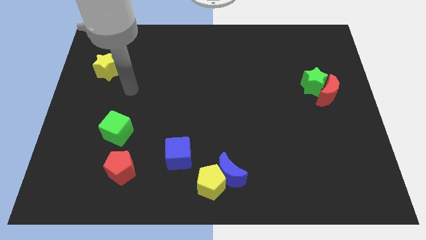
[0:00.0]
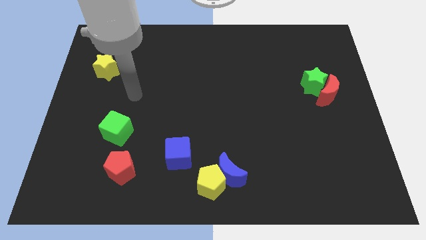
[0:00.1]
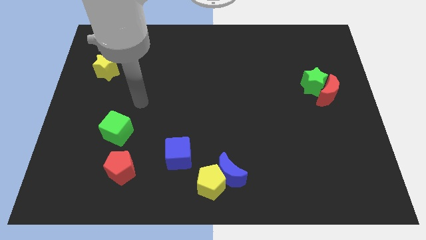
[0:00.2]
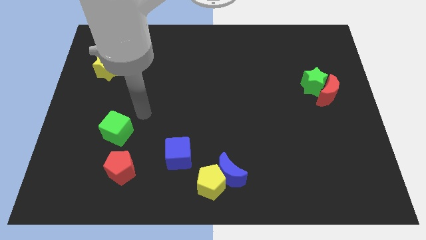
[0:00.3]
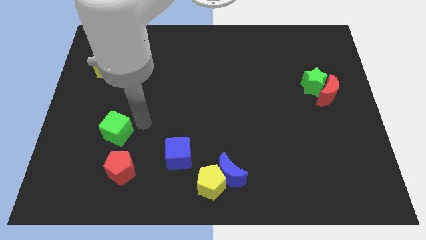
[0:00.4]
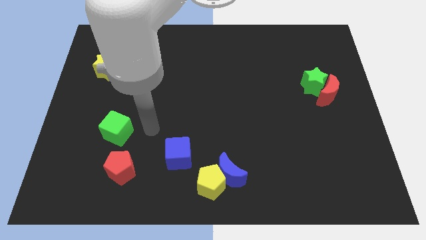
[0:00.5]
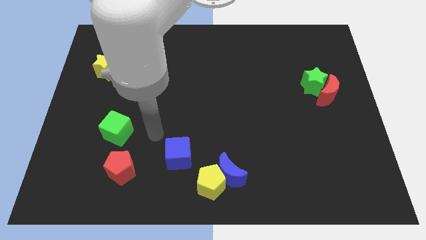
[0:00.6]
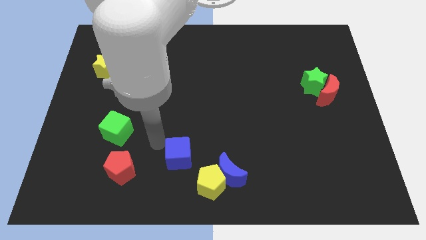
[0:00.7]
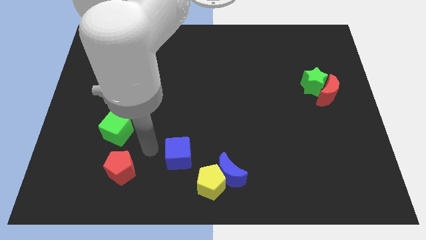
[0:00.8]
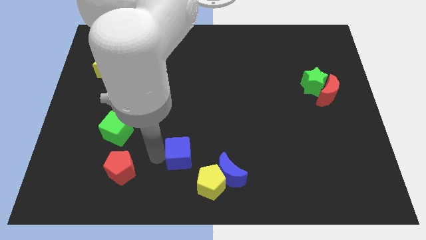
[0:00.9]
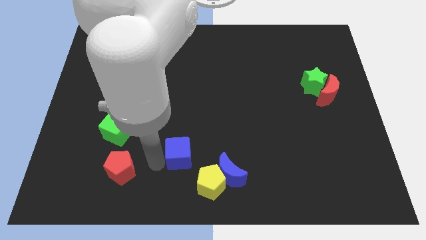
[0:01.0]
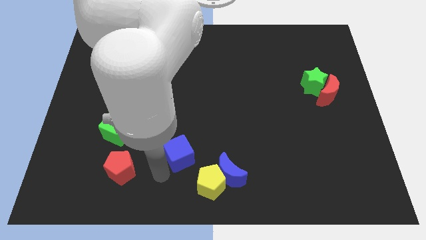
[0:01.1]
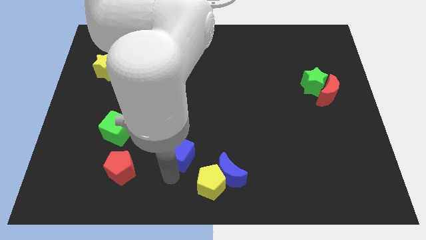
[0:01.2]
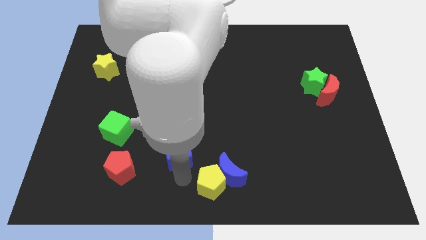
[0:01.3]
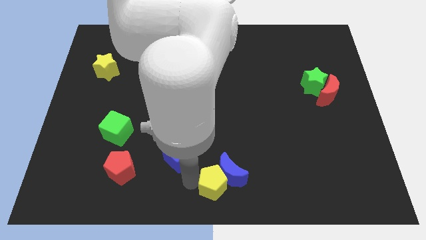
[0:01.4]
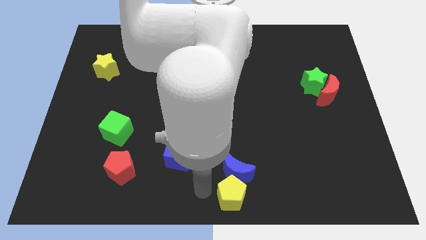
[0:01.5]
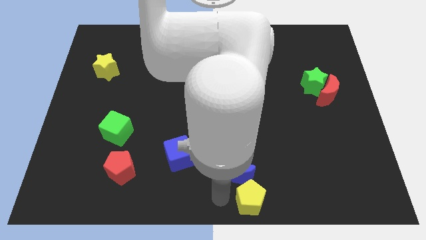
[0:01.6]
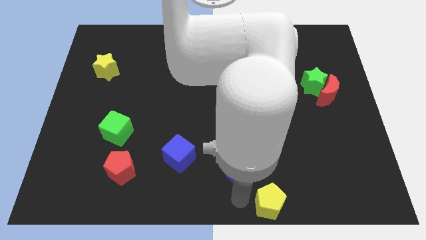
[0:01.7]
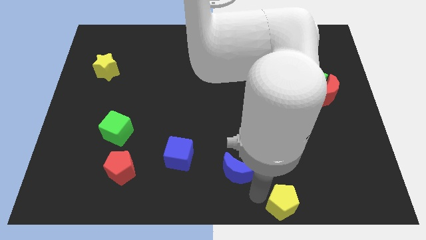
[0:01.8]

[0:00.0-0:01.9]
separate the blue moon from the yellow pentagon

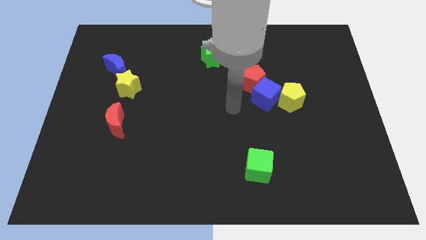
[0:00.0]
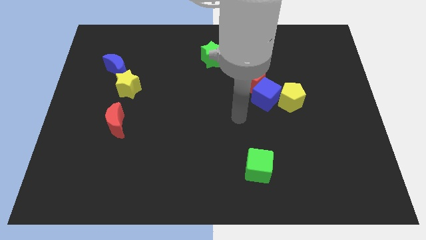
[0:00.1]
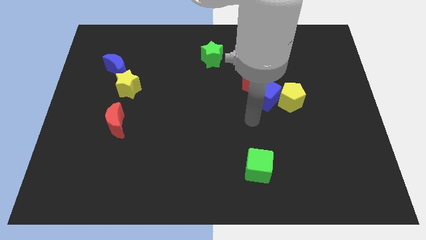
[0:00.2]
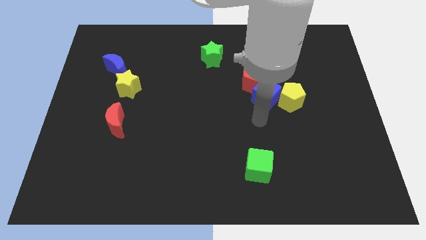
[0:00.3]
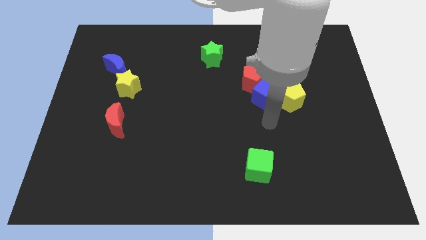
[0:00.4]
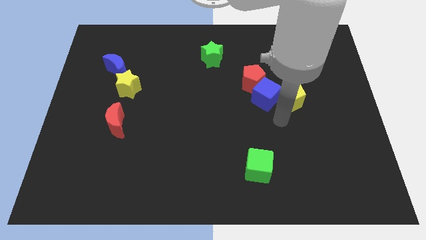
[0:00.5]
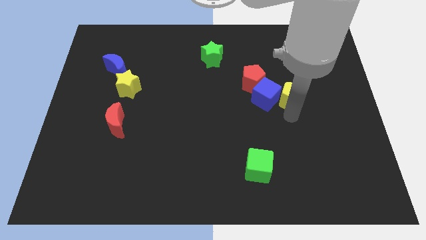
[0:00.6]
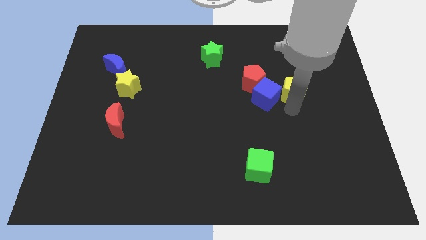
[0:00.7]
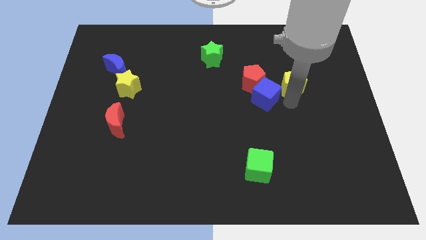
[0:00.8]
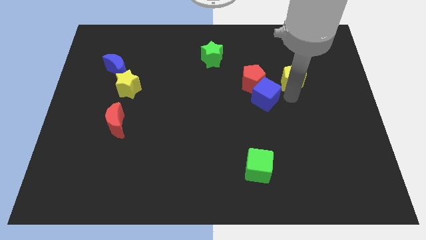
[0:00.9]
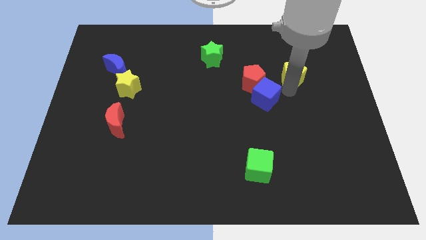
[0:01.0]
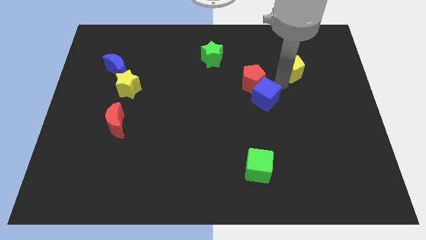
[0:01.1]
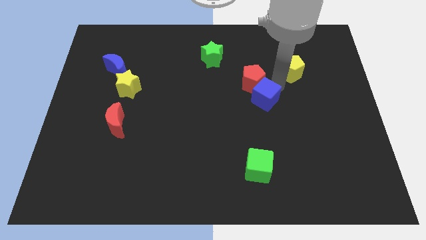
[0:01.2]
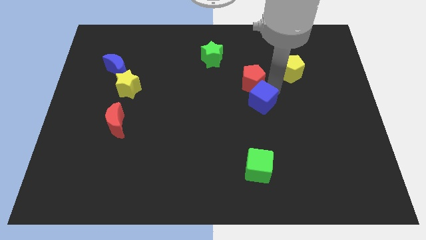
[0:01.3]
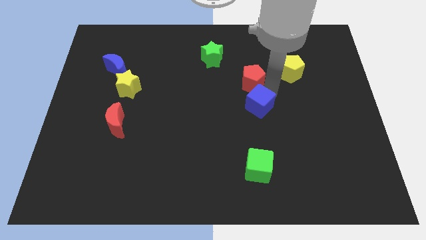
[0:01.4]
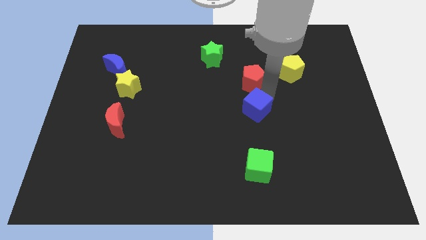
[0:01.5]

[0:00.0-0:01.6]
separate the blue cube from the red pentagon and yellow pentagon

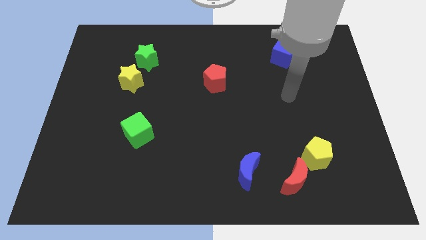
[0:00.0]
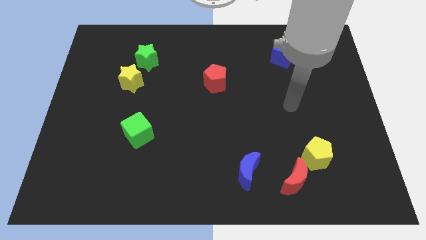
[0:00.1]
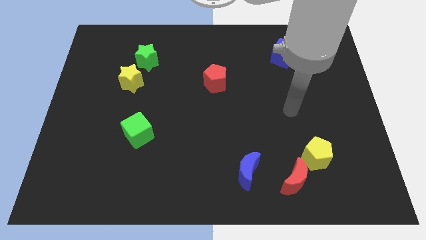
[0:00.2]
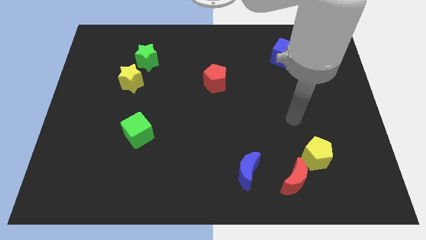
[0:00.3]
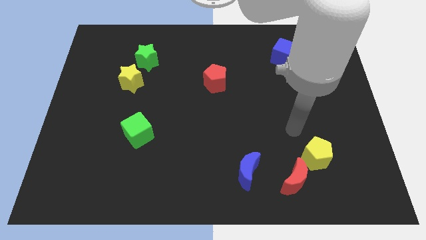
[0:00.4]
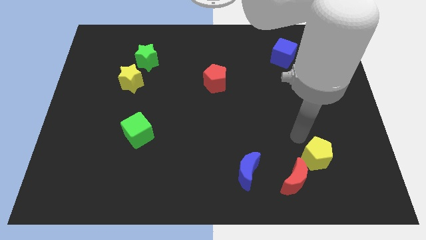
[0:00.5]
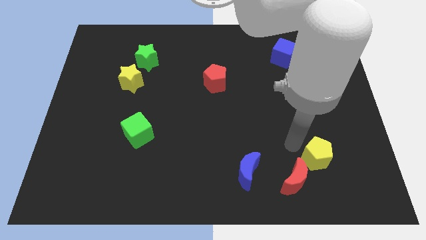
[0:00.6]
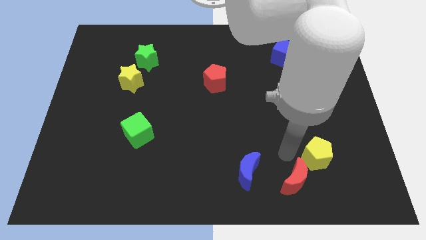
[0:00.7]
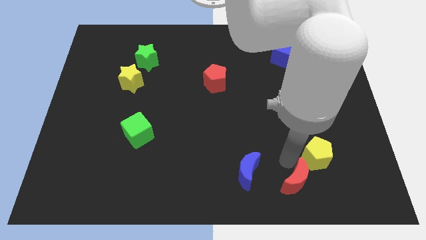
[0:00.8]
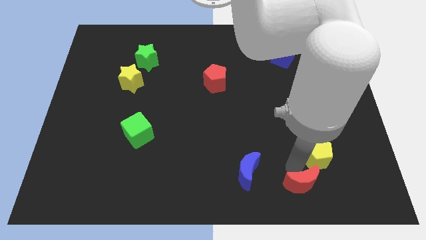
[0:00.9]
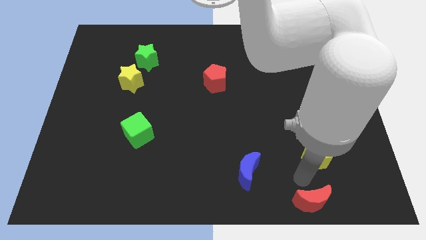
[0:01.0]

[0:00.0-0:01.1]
move the yellow pentagon away from the red moon

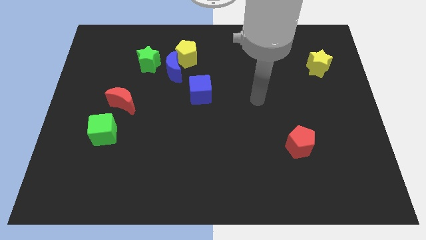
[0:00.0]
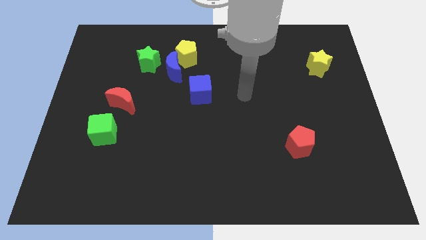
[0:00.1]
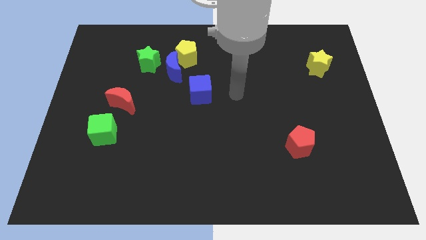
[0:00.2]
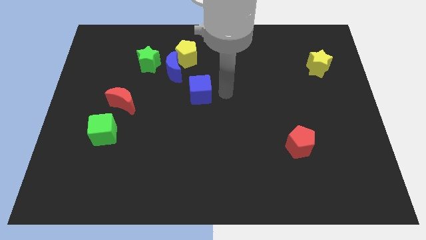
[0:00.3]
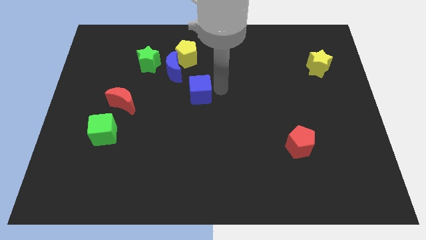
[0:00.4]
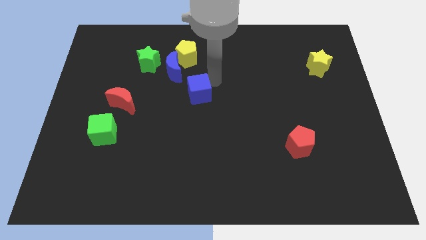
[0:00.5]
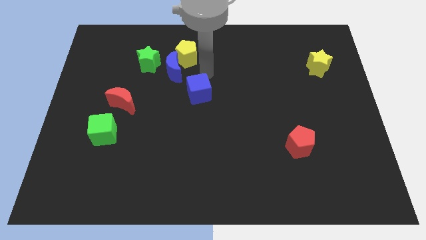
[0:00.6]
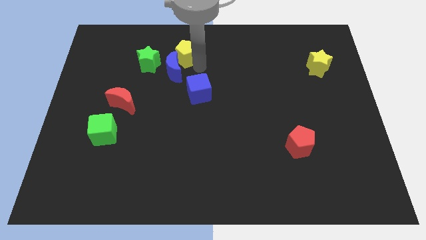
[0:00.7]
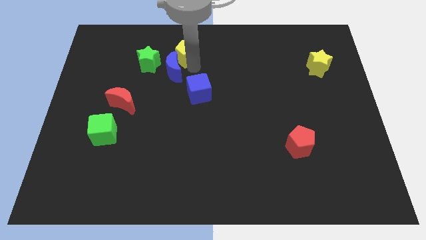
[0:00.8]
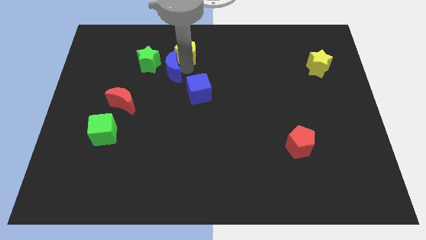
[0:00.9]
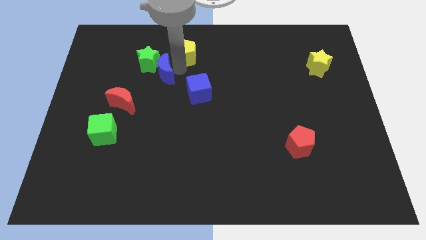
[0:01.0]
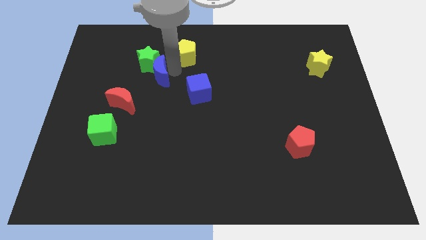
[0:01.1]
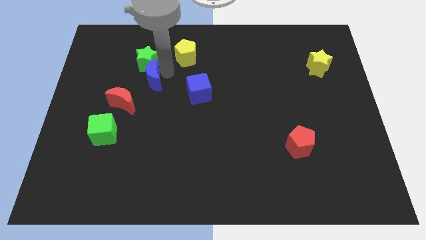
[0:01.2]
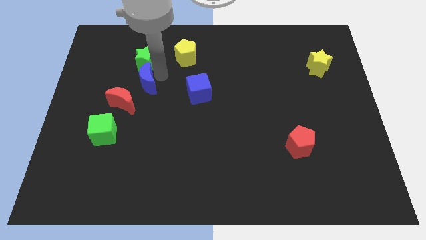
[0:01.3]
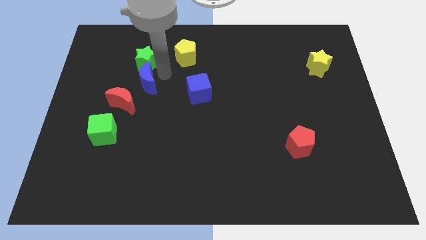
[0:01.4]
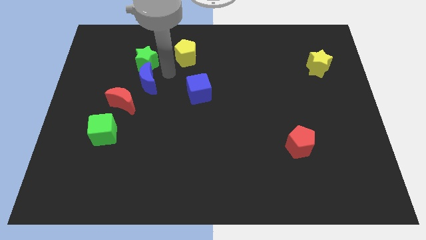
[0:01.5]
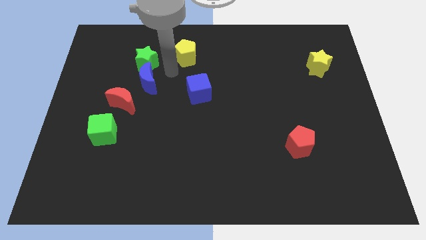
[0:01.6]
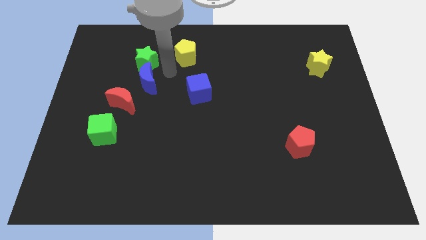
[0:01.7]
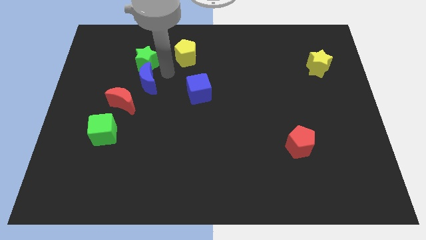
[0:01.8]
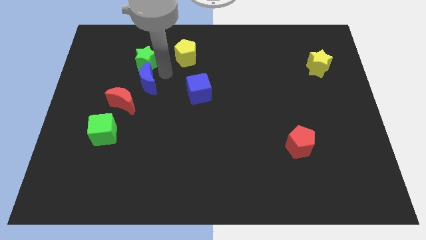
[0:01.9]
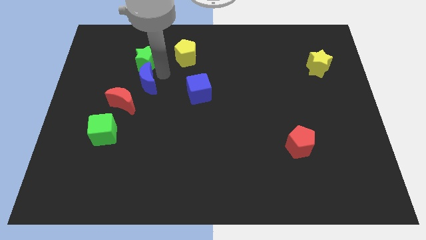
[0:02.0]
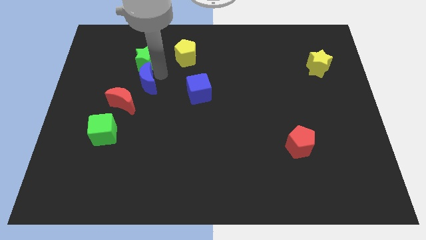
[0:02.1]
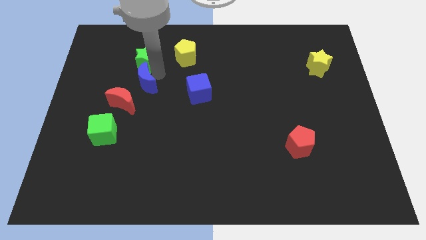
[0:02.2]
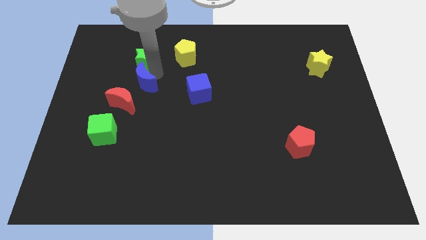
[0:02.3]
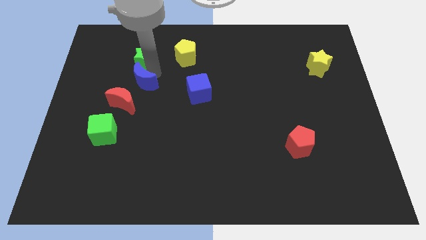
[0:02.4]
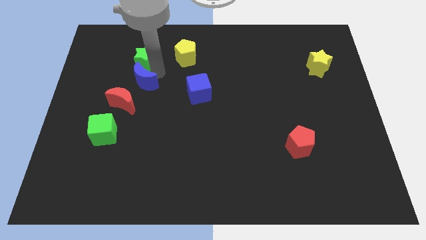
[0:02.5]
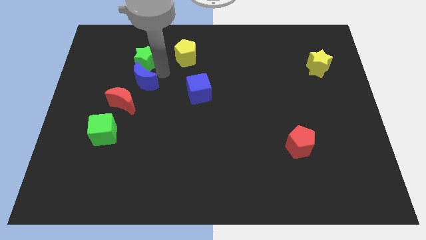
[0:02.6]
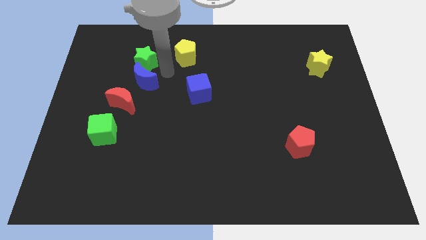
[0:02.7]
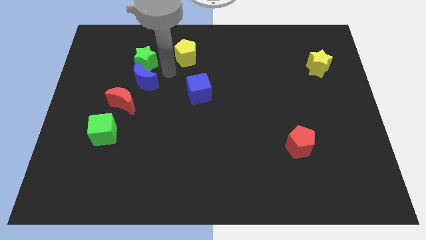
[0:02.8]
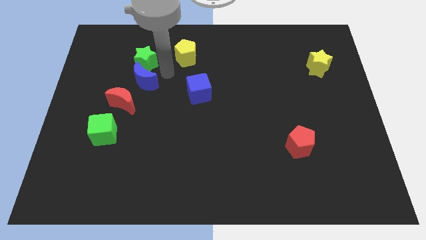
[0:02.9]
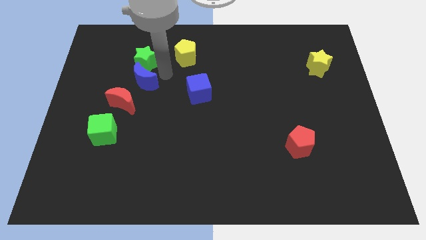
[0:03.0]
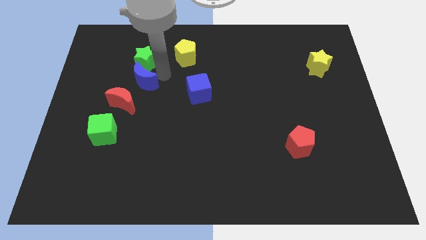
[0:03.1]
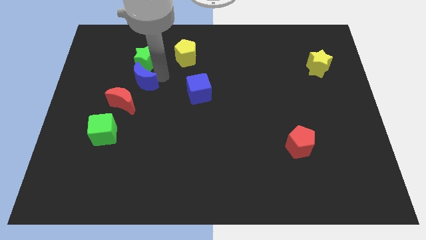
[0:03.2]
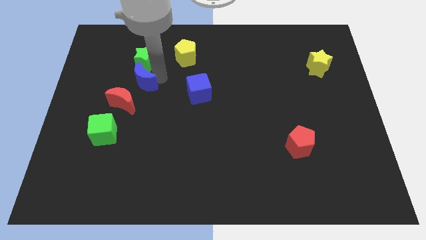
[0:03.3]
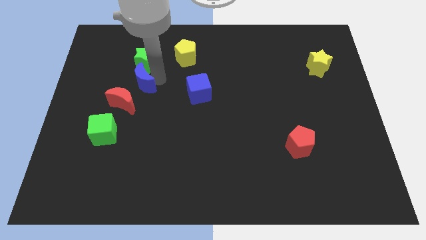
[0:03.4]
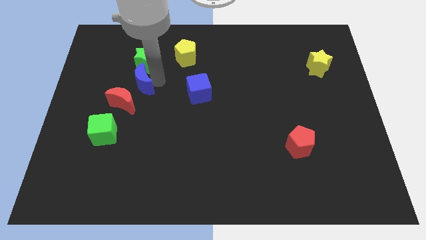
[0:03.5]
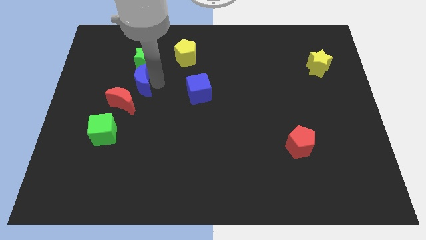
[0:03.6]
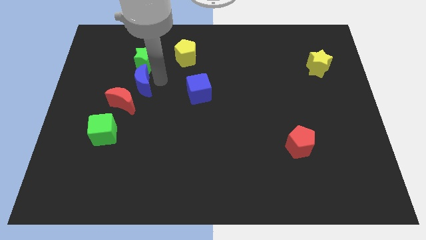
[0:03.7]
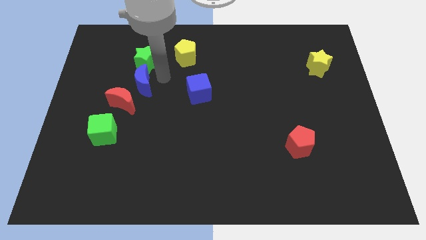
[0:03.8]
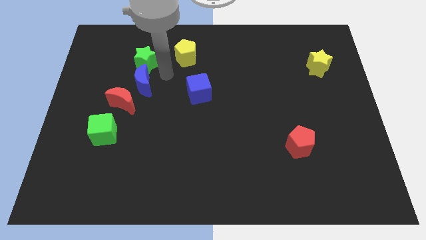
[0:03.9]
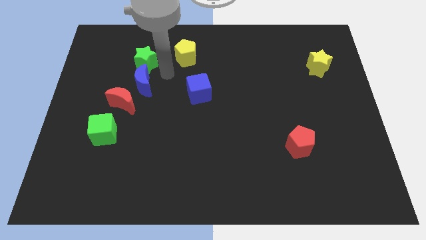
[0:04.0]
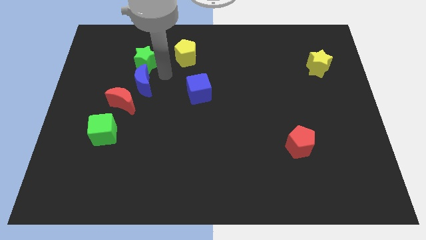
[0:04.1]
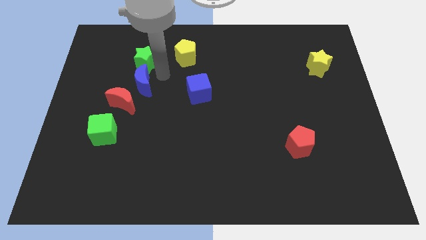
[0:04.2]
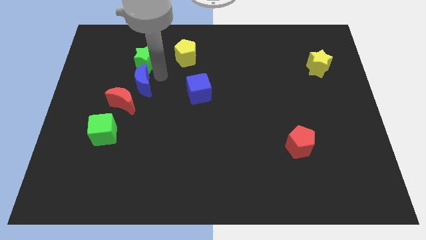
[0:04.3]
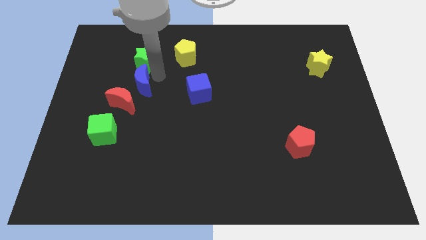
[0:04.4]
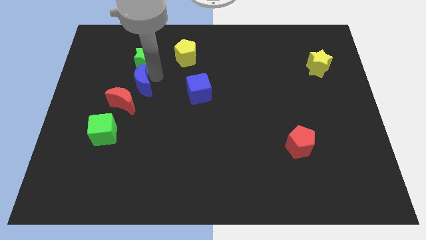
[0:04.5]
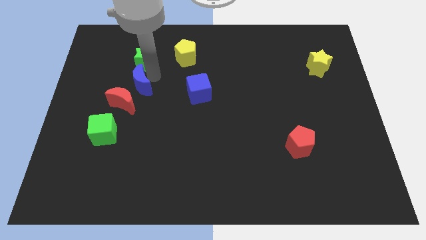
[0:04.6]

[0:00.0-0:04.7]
pull the blue moon apart from the group of blocks
